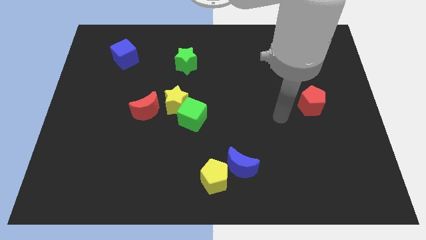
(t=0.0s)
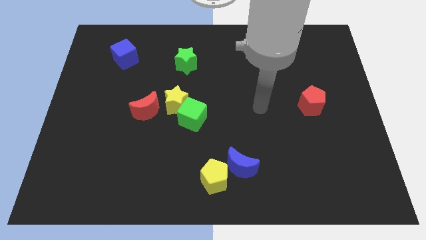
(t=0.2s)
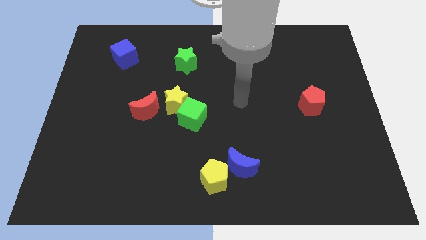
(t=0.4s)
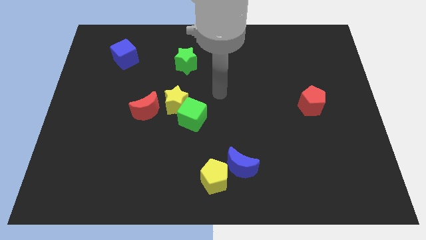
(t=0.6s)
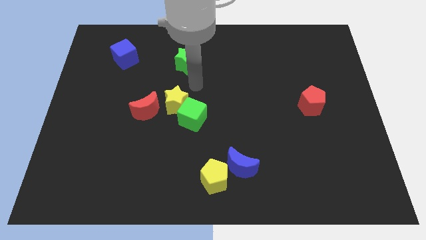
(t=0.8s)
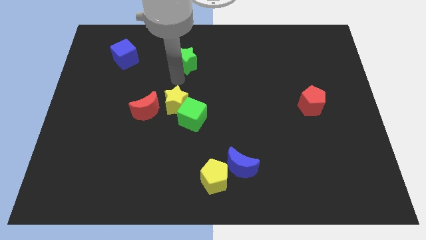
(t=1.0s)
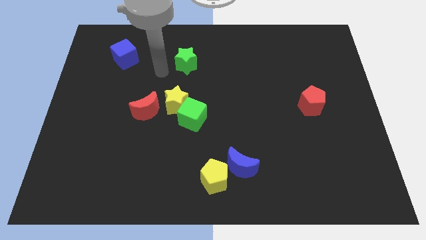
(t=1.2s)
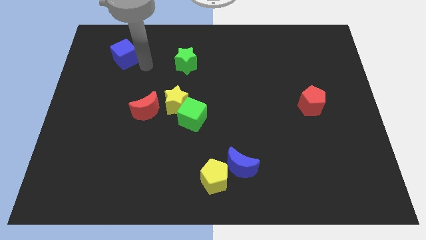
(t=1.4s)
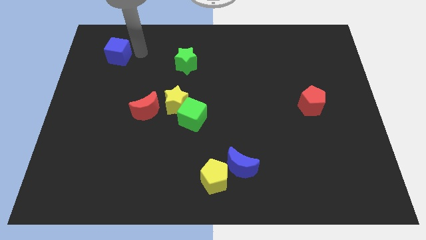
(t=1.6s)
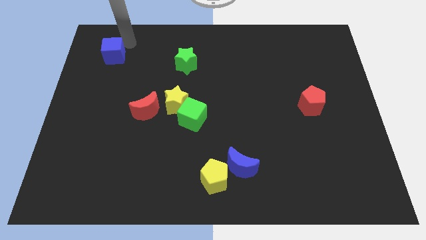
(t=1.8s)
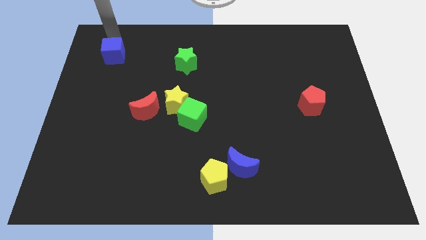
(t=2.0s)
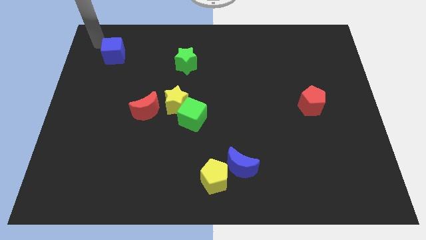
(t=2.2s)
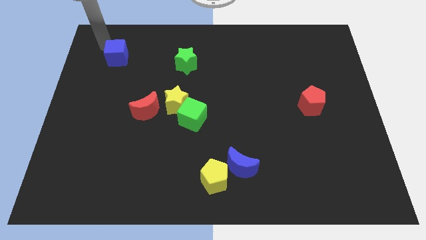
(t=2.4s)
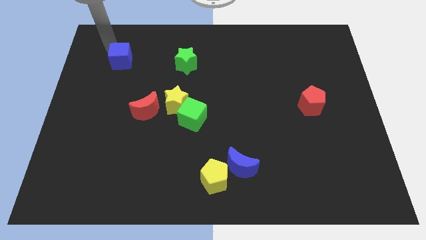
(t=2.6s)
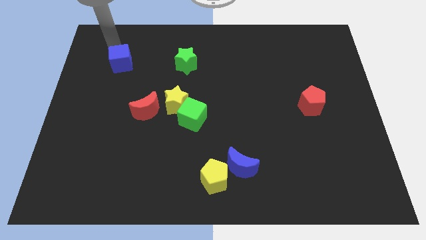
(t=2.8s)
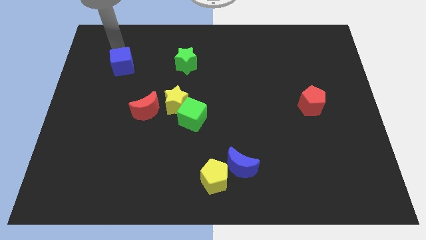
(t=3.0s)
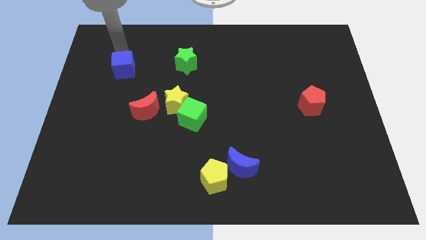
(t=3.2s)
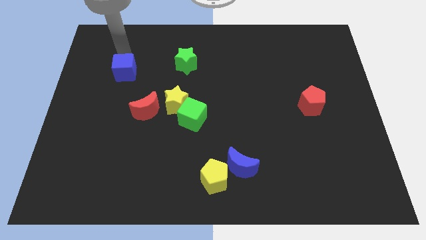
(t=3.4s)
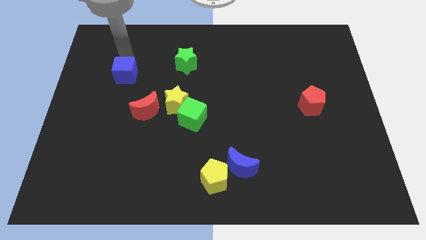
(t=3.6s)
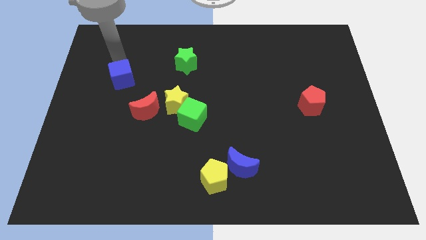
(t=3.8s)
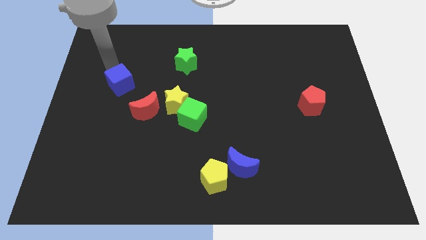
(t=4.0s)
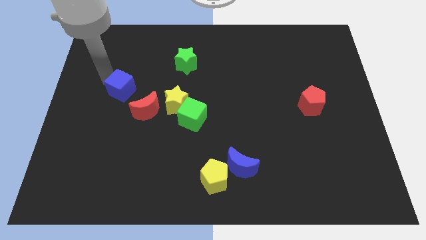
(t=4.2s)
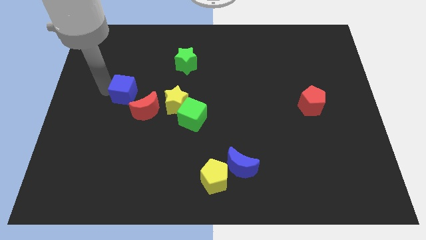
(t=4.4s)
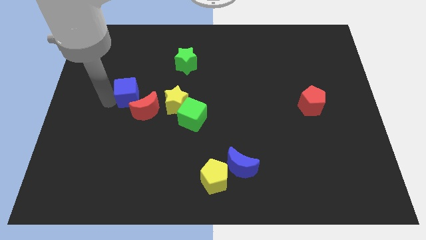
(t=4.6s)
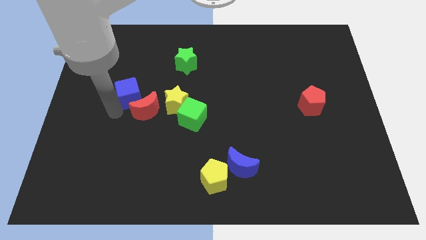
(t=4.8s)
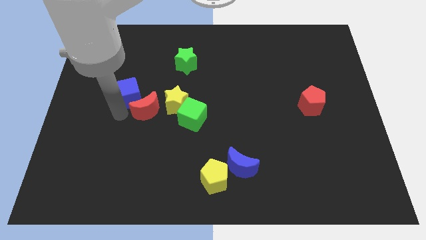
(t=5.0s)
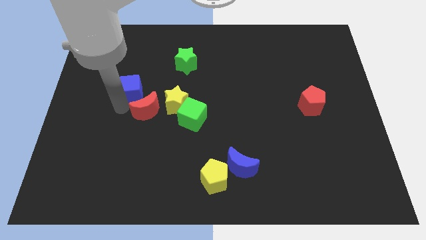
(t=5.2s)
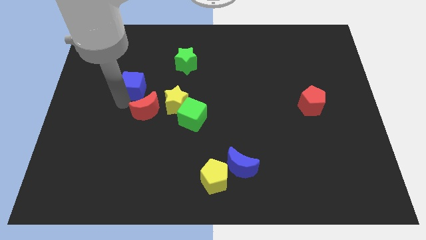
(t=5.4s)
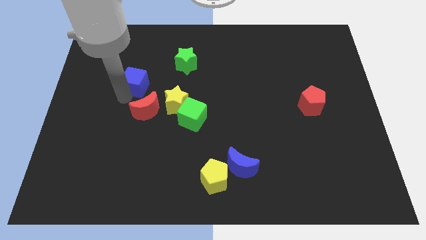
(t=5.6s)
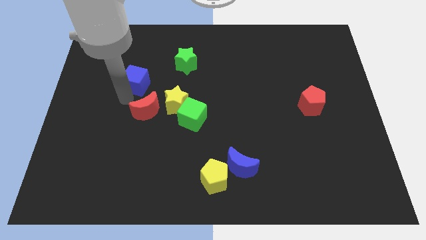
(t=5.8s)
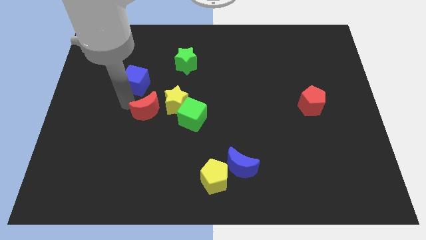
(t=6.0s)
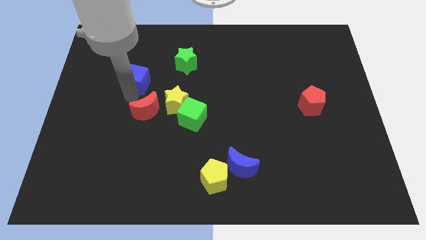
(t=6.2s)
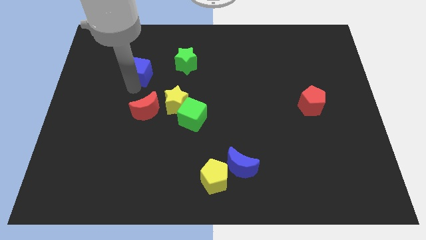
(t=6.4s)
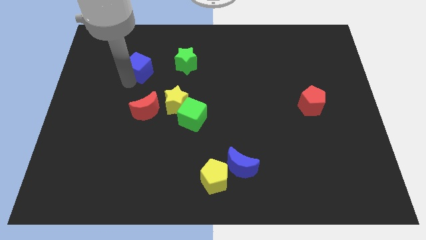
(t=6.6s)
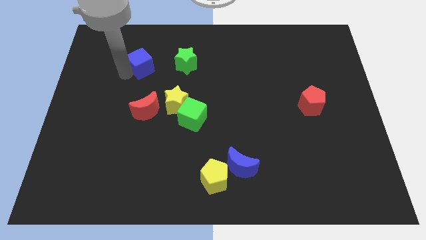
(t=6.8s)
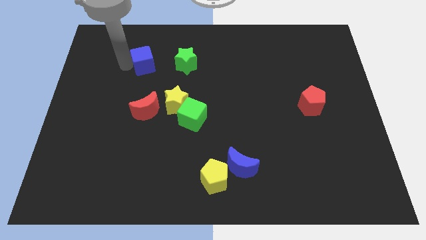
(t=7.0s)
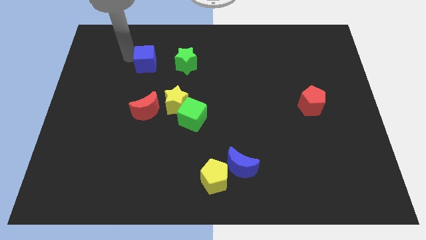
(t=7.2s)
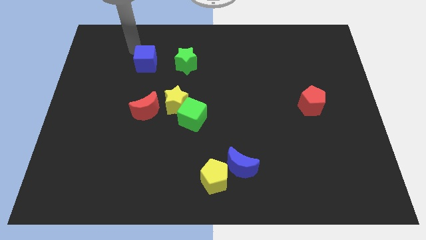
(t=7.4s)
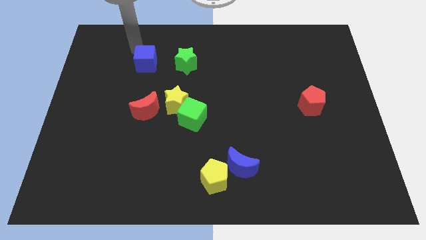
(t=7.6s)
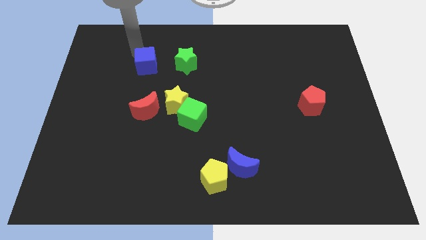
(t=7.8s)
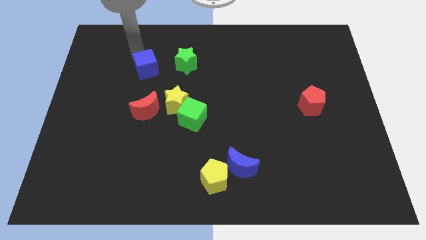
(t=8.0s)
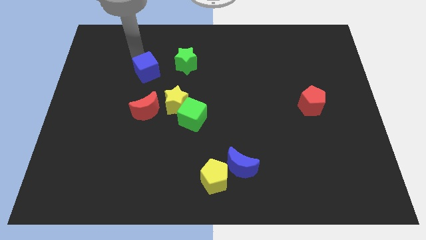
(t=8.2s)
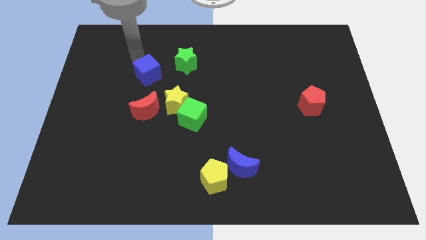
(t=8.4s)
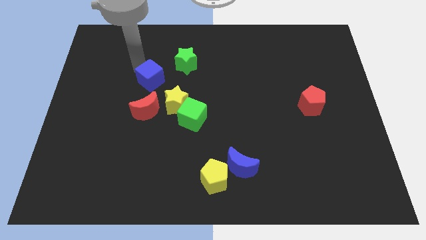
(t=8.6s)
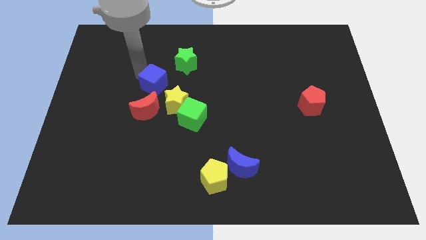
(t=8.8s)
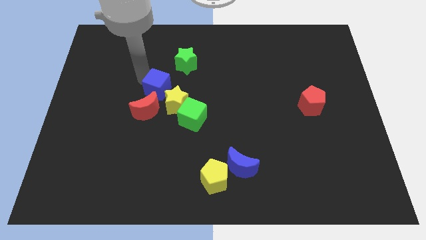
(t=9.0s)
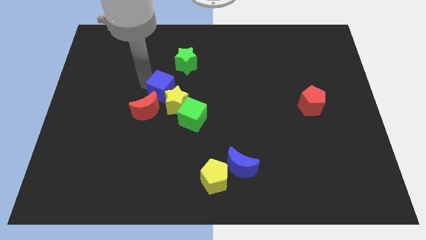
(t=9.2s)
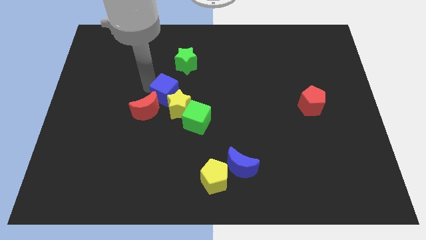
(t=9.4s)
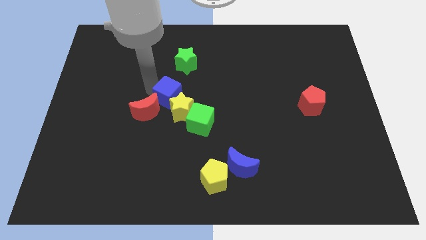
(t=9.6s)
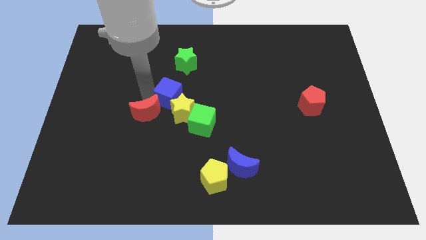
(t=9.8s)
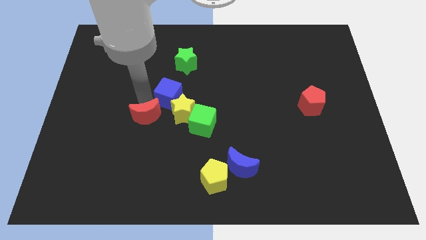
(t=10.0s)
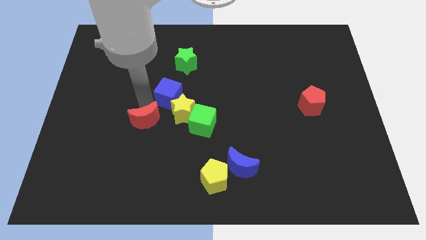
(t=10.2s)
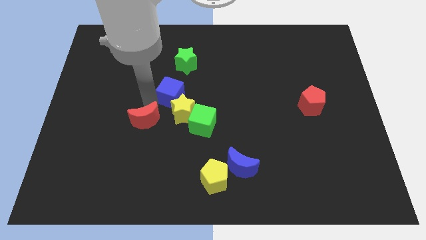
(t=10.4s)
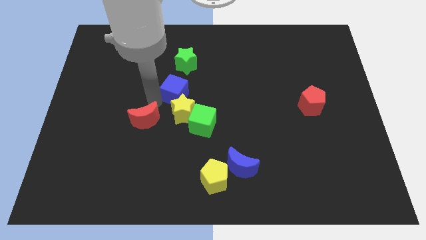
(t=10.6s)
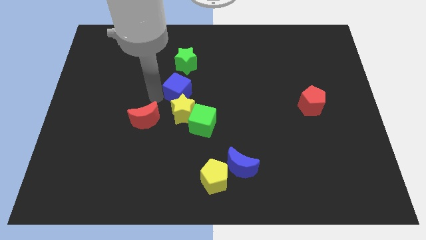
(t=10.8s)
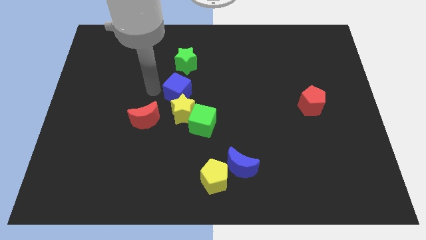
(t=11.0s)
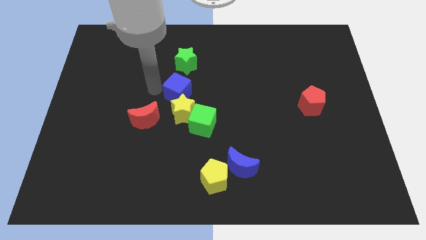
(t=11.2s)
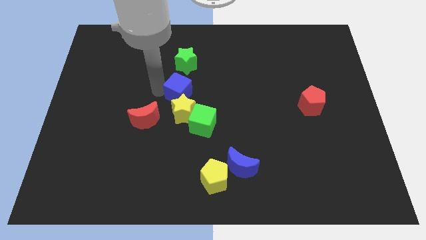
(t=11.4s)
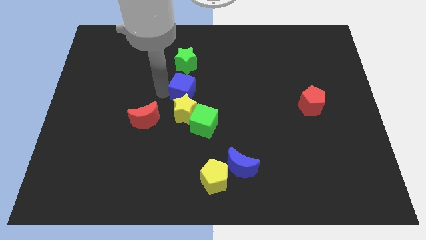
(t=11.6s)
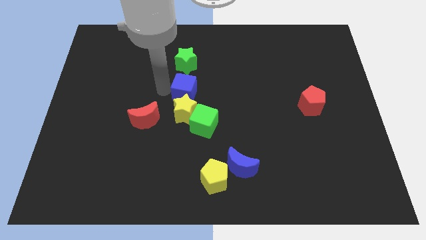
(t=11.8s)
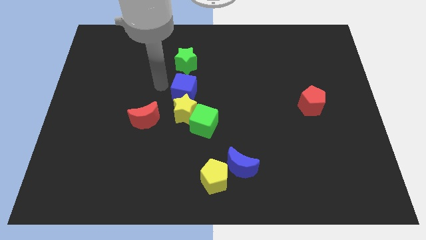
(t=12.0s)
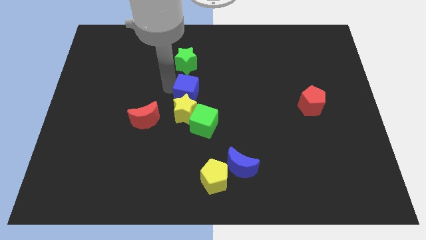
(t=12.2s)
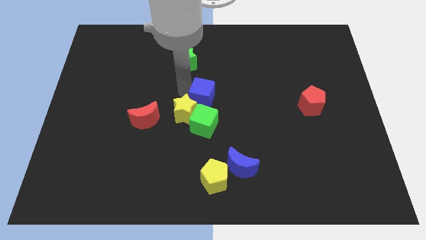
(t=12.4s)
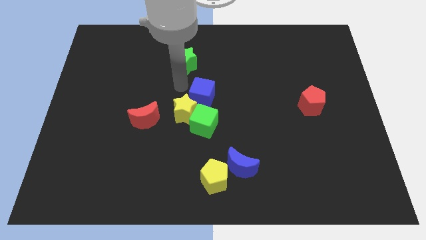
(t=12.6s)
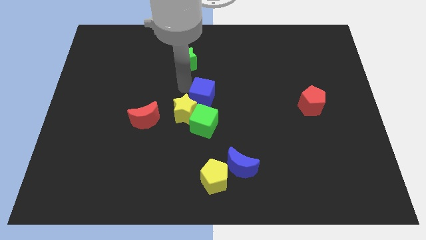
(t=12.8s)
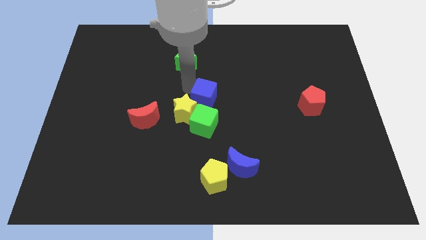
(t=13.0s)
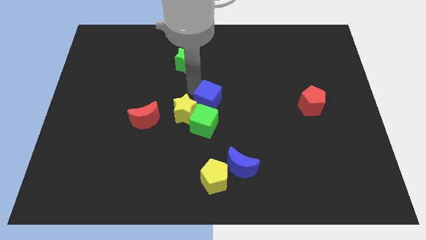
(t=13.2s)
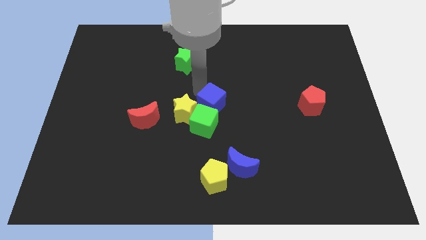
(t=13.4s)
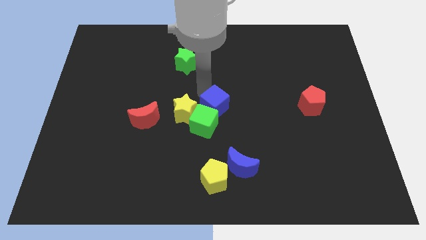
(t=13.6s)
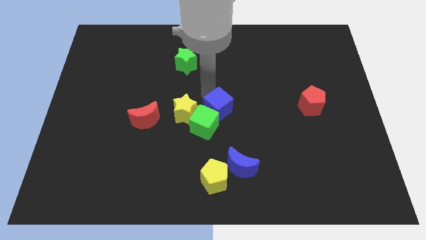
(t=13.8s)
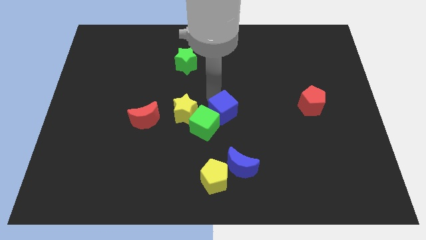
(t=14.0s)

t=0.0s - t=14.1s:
slide the blue cube above the blue moon
